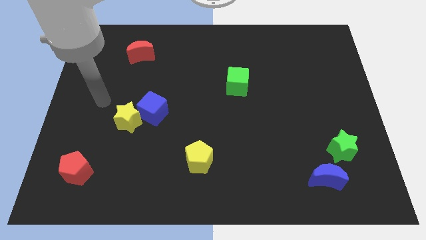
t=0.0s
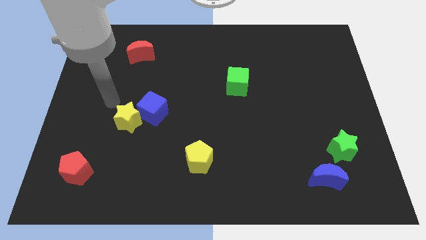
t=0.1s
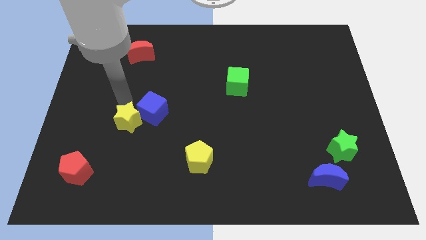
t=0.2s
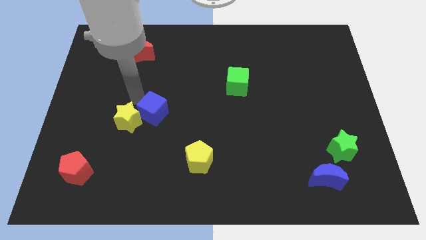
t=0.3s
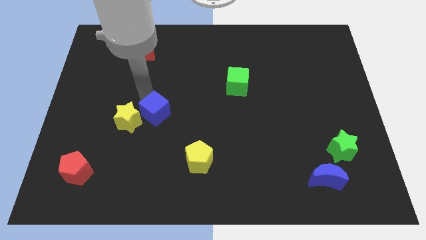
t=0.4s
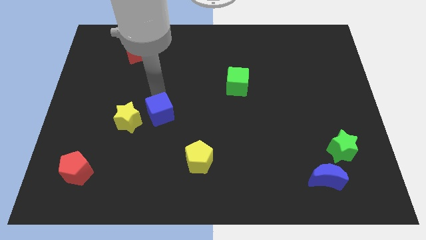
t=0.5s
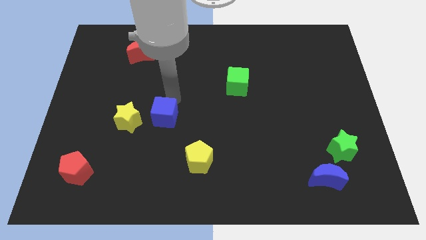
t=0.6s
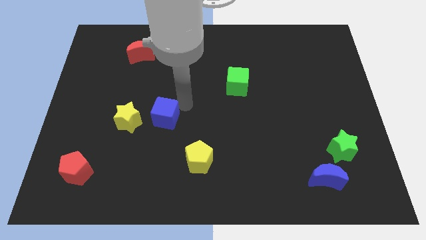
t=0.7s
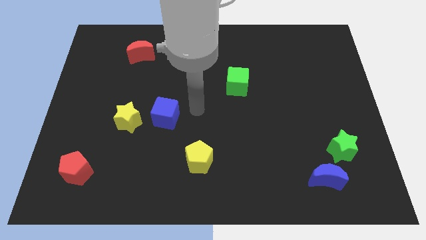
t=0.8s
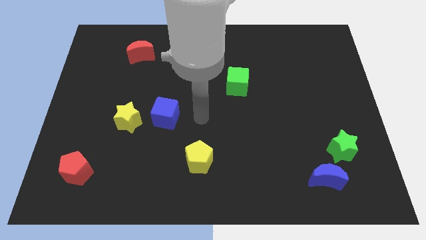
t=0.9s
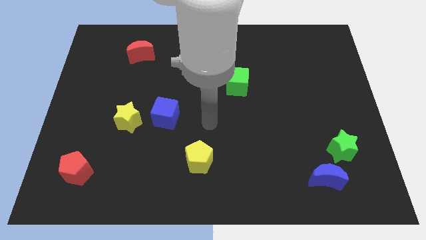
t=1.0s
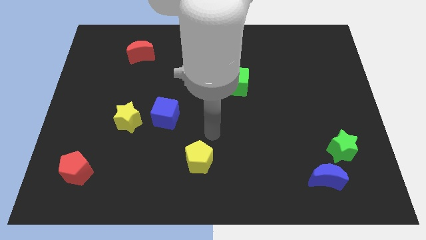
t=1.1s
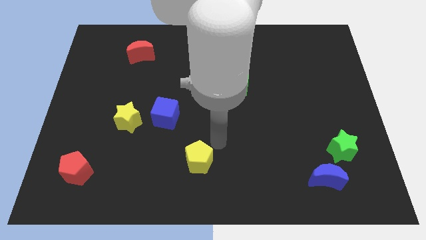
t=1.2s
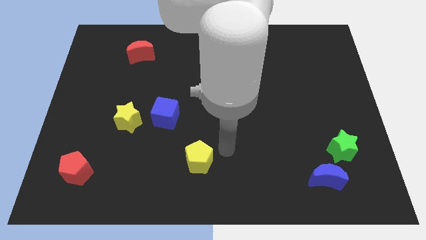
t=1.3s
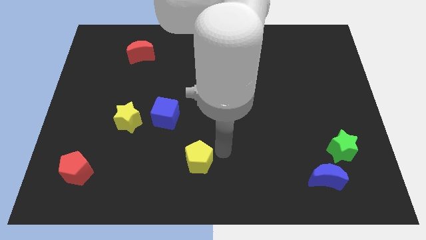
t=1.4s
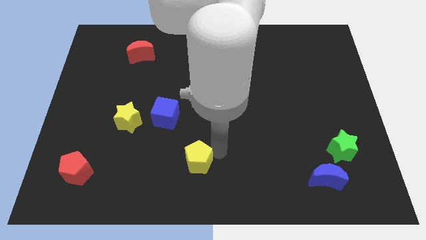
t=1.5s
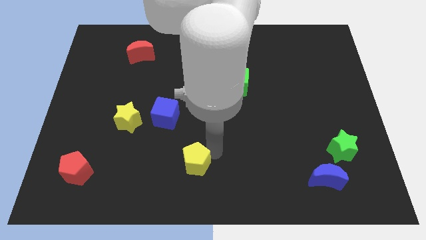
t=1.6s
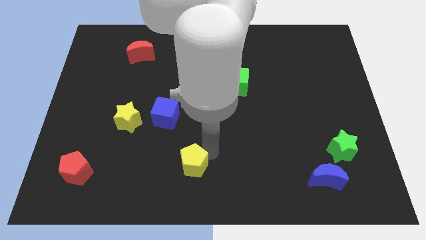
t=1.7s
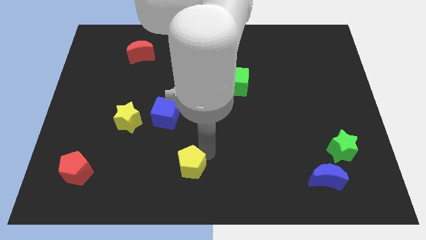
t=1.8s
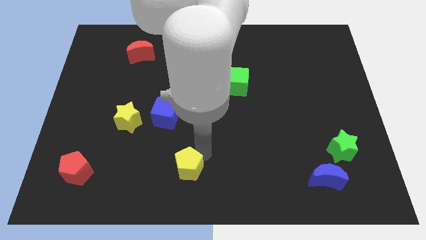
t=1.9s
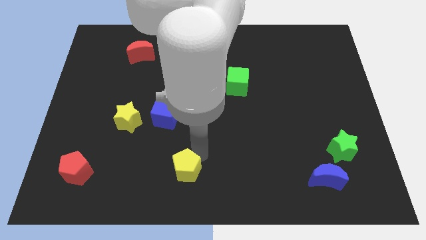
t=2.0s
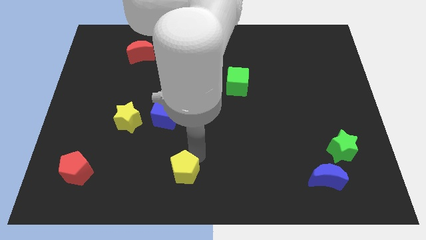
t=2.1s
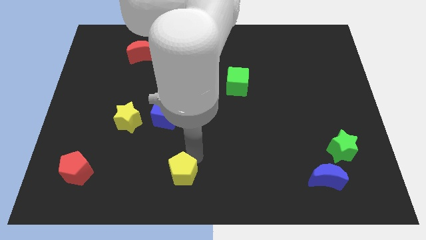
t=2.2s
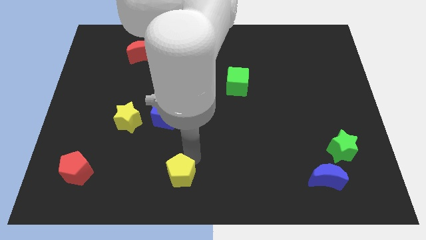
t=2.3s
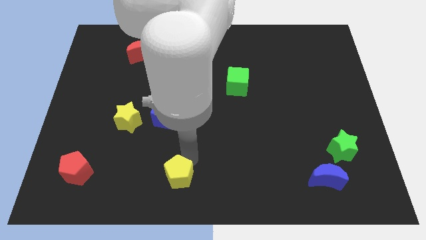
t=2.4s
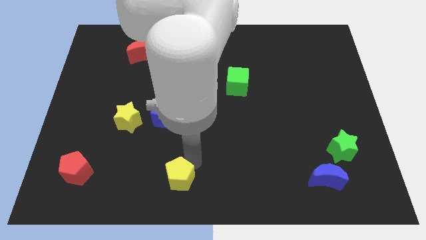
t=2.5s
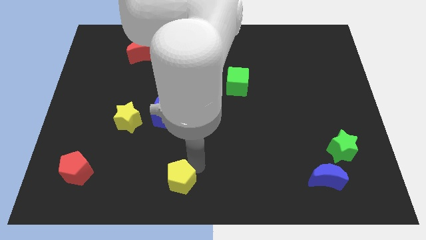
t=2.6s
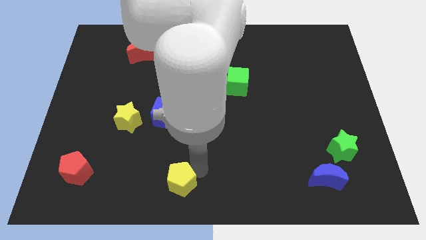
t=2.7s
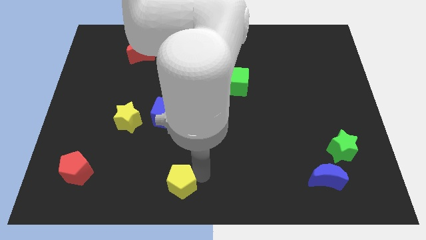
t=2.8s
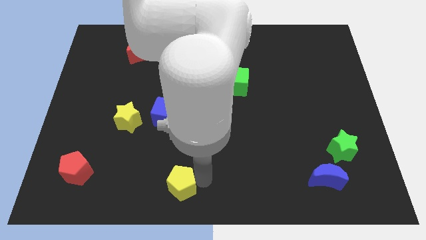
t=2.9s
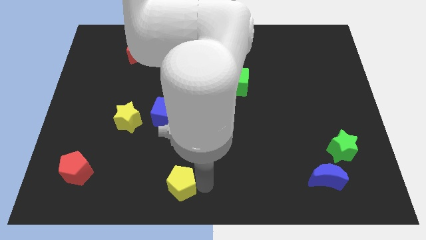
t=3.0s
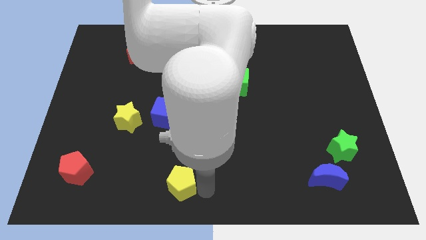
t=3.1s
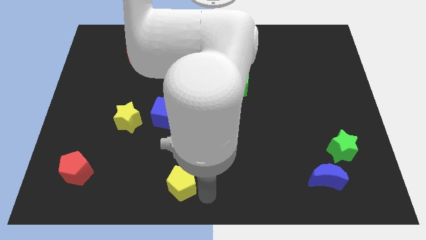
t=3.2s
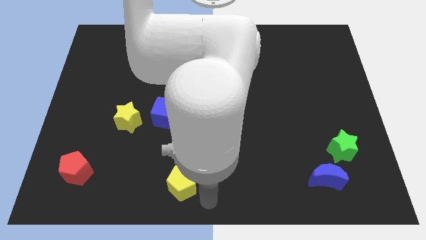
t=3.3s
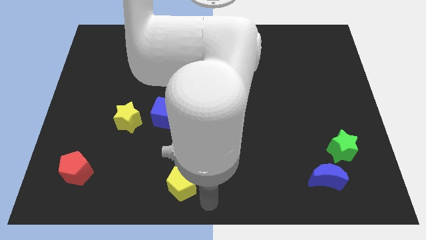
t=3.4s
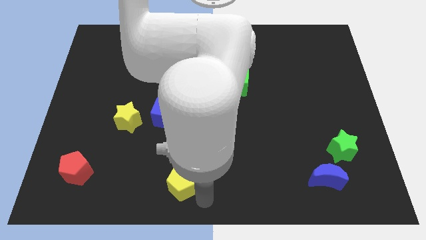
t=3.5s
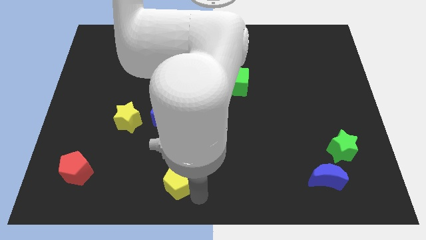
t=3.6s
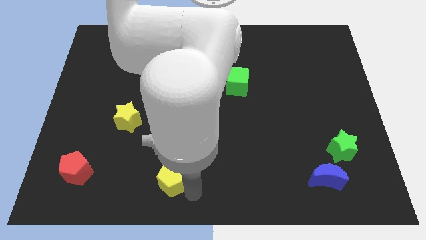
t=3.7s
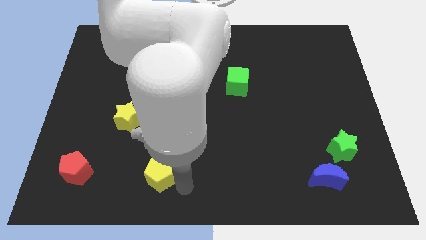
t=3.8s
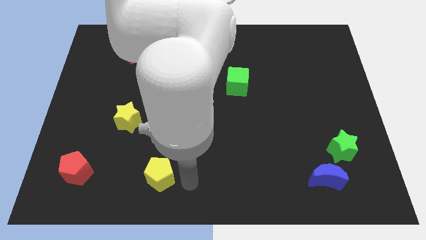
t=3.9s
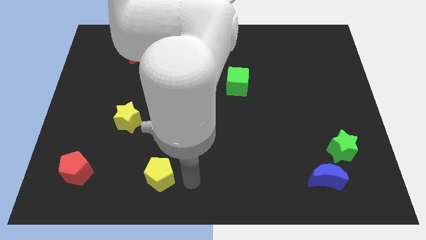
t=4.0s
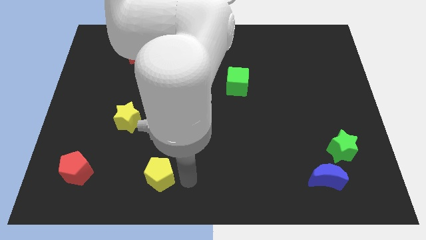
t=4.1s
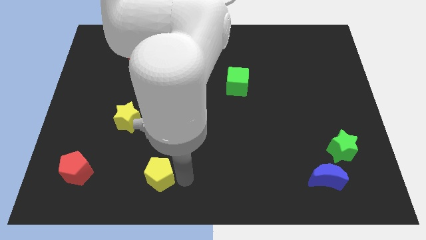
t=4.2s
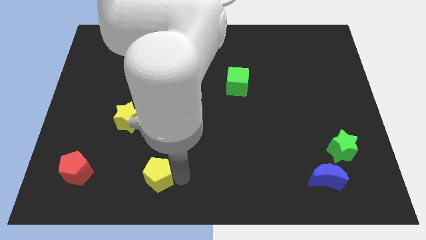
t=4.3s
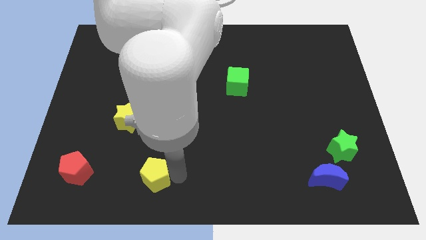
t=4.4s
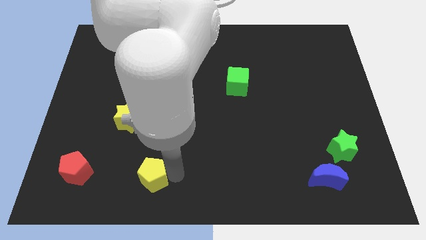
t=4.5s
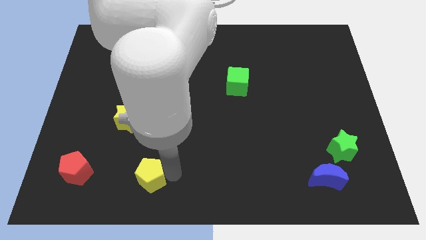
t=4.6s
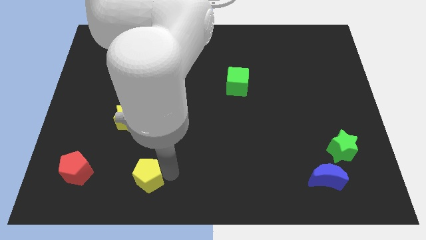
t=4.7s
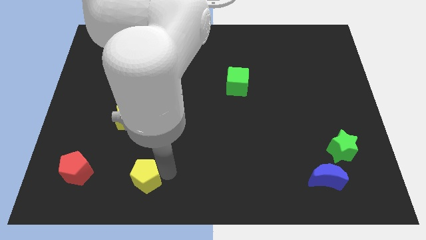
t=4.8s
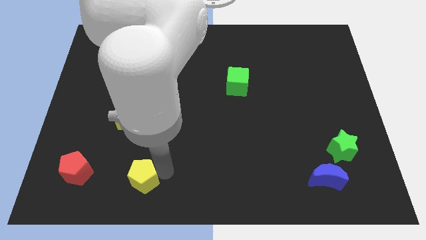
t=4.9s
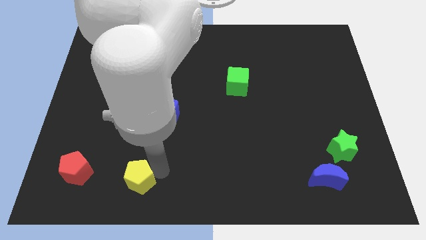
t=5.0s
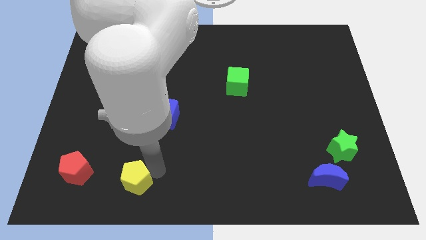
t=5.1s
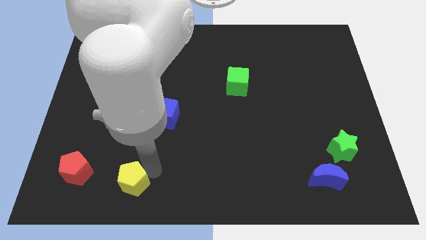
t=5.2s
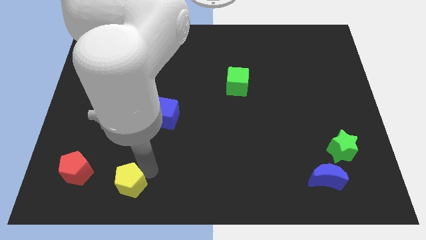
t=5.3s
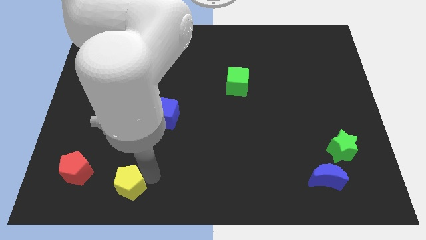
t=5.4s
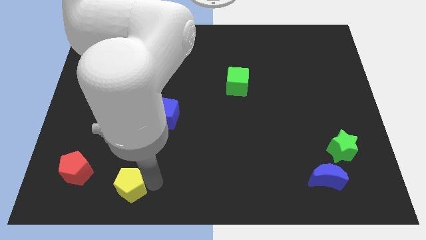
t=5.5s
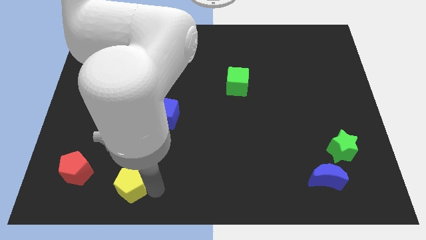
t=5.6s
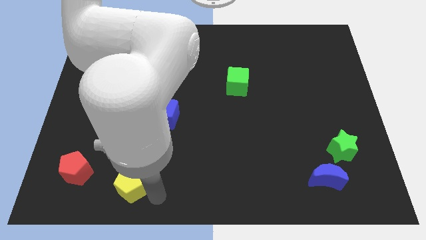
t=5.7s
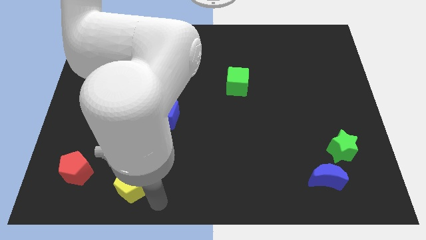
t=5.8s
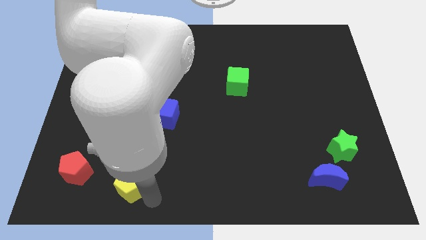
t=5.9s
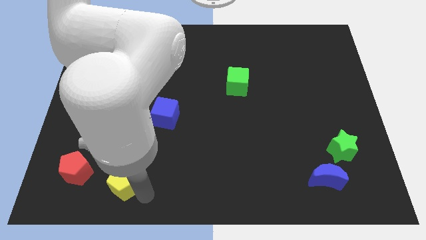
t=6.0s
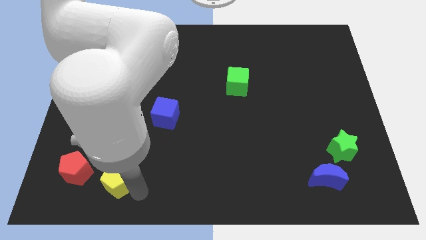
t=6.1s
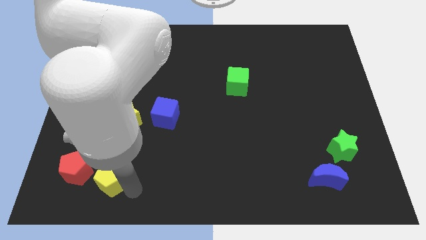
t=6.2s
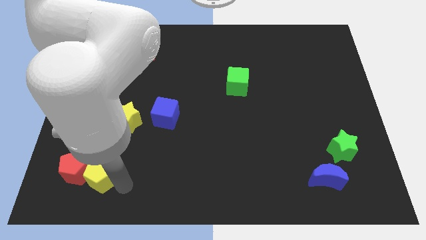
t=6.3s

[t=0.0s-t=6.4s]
push the yellow pentagon close to the red pentagon

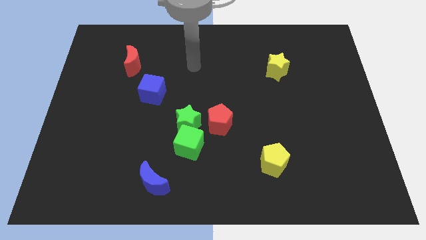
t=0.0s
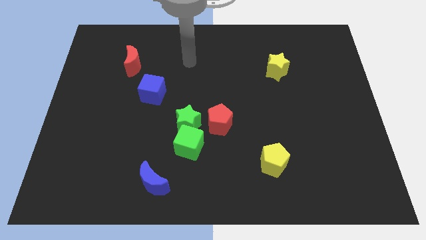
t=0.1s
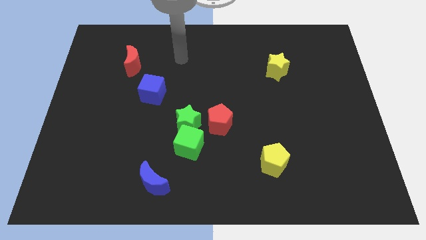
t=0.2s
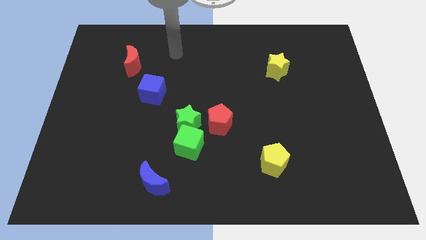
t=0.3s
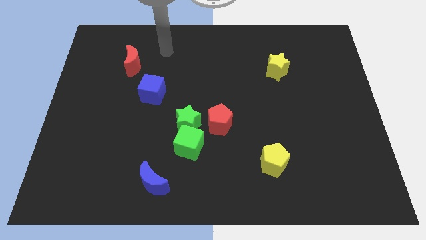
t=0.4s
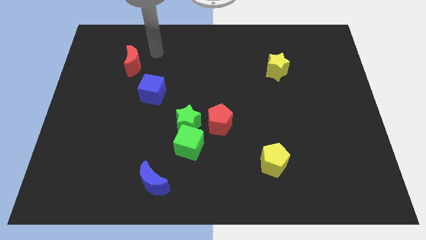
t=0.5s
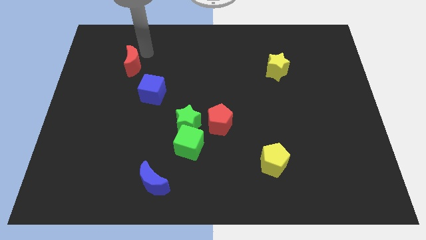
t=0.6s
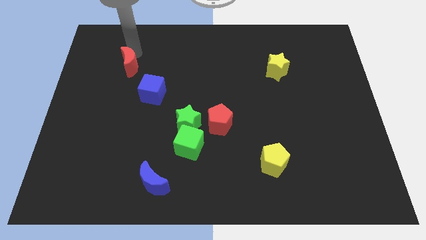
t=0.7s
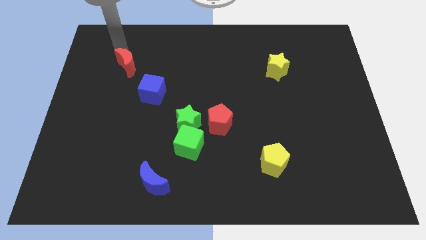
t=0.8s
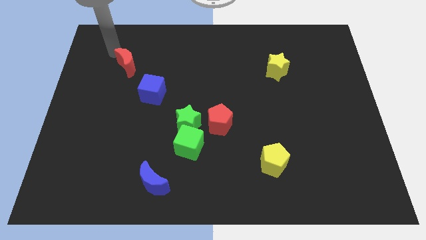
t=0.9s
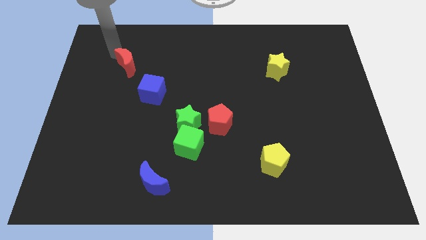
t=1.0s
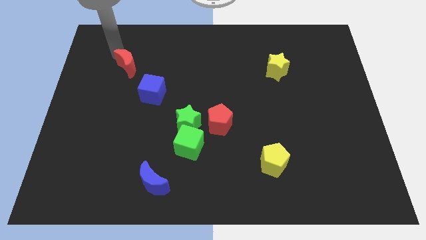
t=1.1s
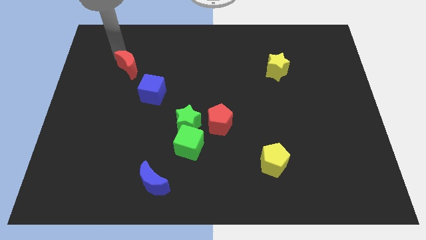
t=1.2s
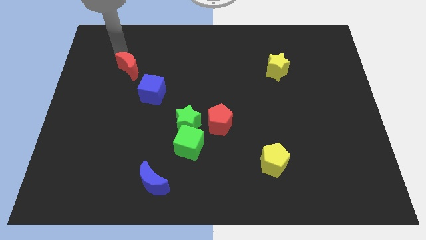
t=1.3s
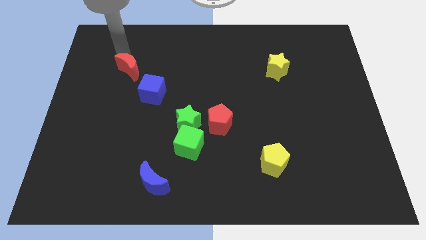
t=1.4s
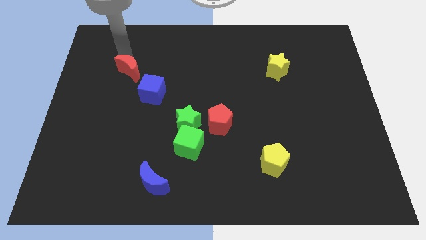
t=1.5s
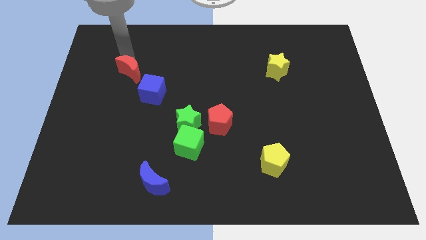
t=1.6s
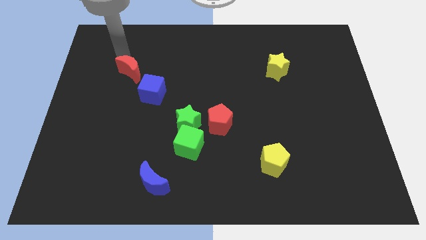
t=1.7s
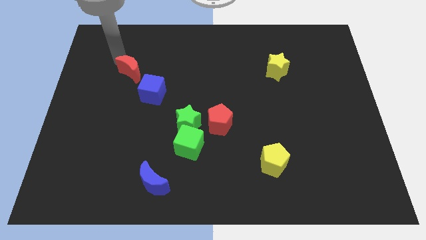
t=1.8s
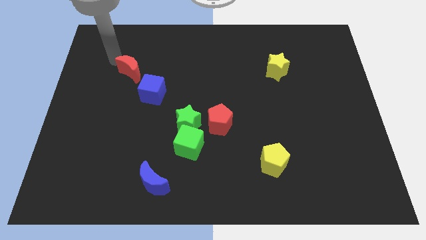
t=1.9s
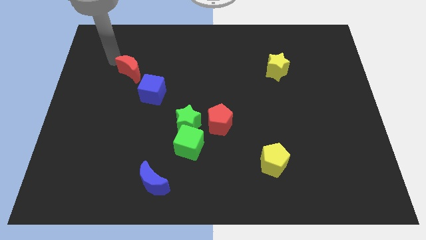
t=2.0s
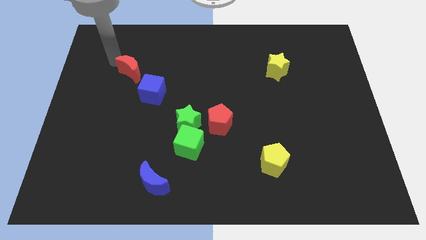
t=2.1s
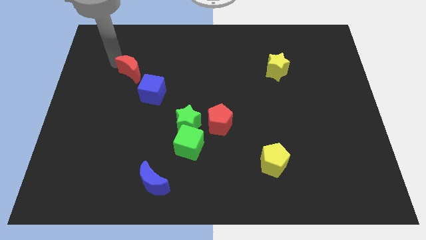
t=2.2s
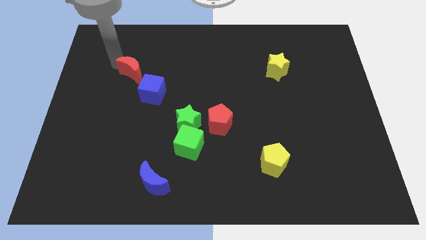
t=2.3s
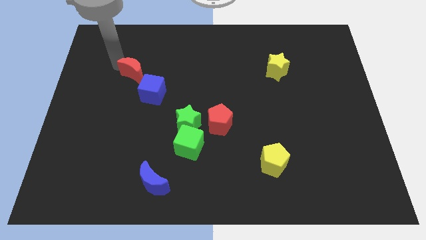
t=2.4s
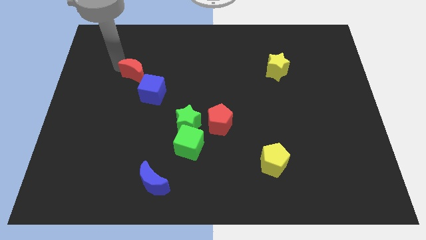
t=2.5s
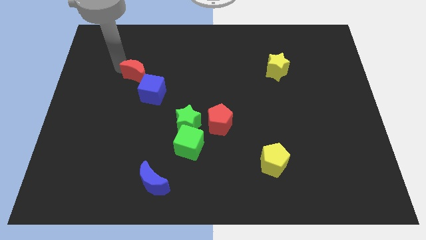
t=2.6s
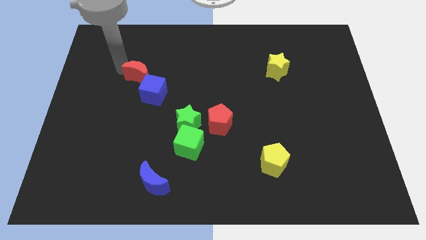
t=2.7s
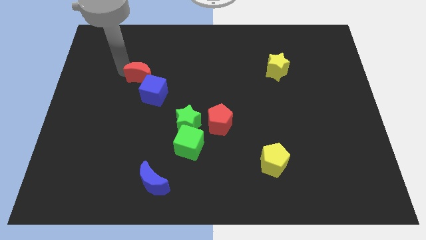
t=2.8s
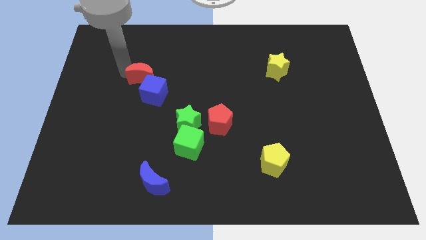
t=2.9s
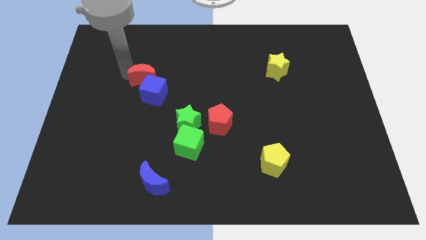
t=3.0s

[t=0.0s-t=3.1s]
move the red moon close to the blue cube
